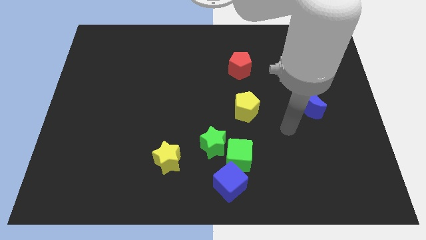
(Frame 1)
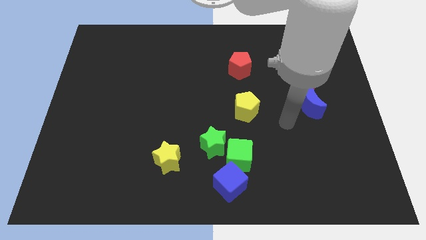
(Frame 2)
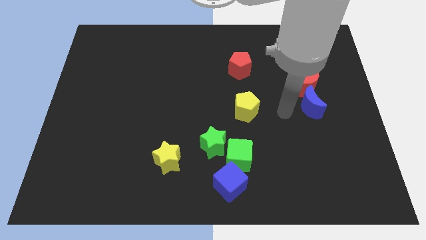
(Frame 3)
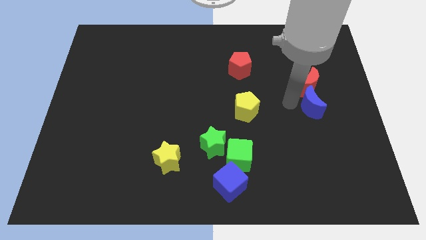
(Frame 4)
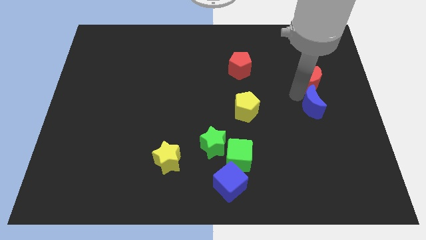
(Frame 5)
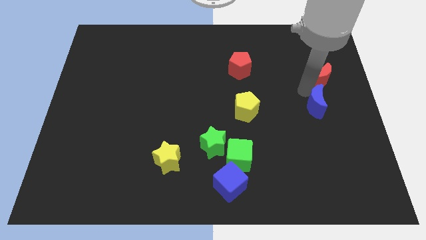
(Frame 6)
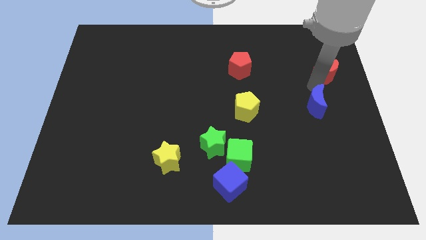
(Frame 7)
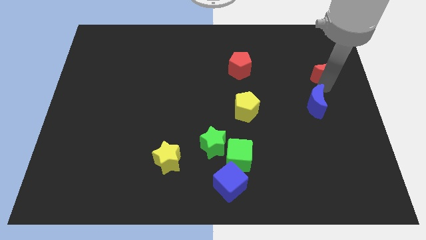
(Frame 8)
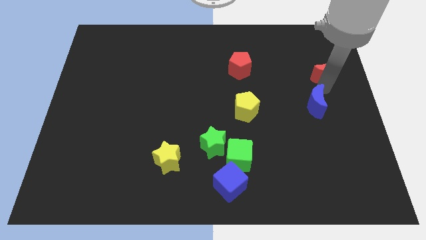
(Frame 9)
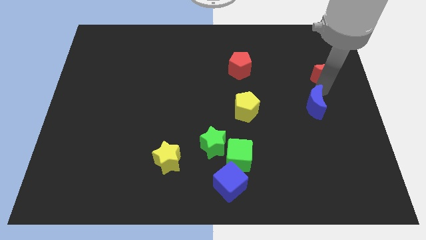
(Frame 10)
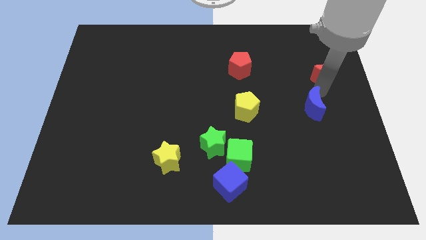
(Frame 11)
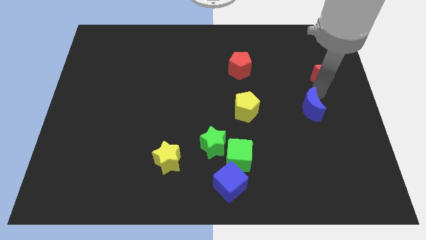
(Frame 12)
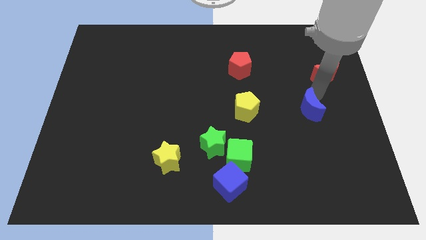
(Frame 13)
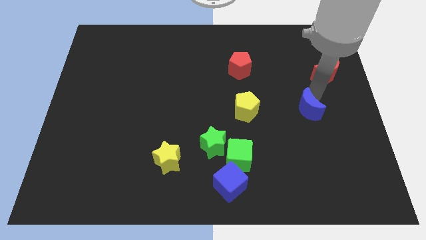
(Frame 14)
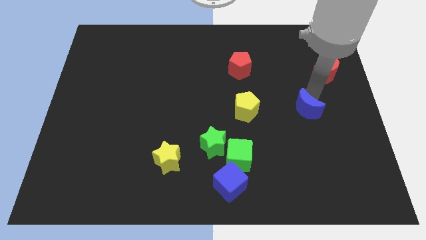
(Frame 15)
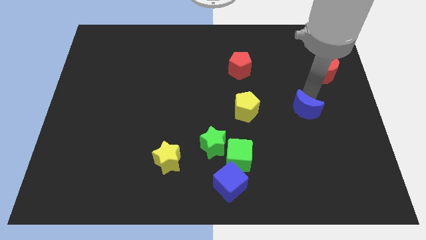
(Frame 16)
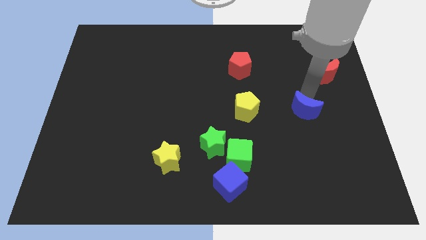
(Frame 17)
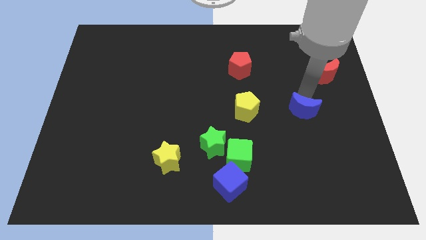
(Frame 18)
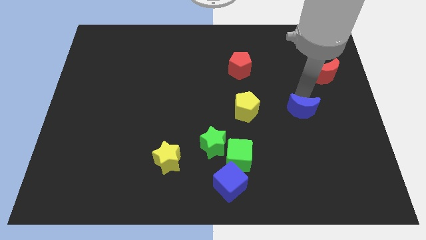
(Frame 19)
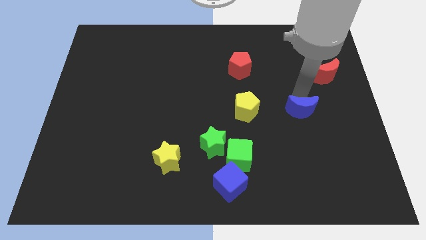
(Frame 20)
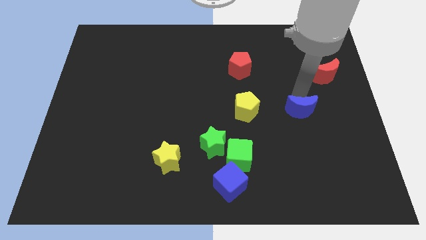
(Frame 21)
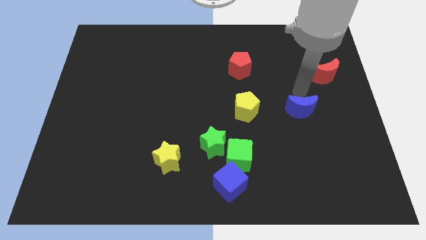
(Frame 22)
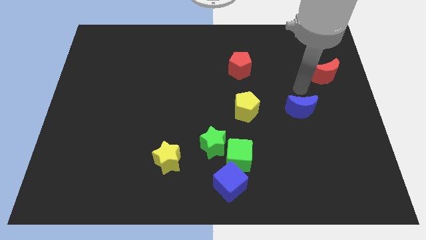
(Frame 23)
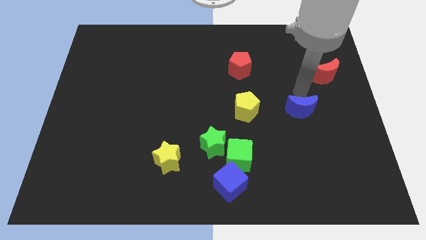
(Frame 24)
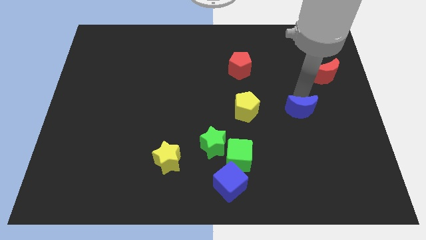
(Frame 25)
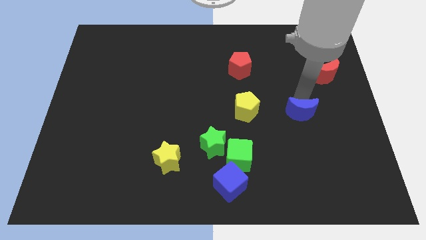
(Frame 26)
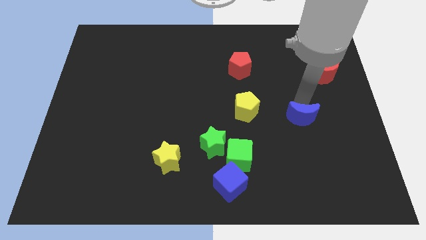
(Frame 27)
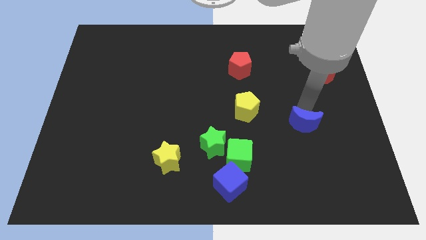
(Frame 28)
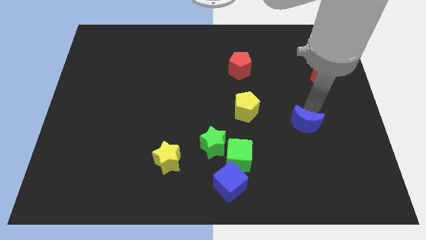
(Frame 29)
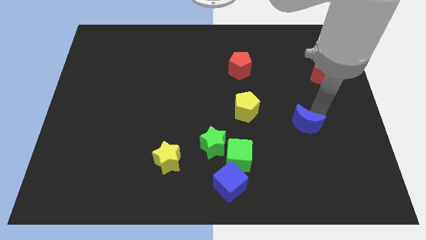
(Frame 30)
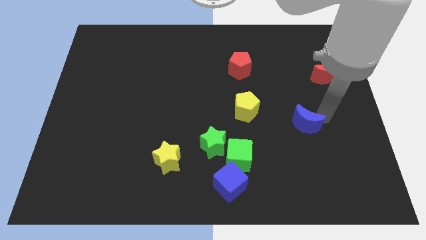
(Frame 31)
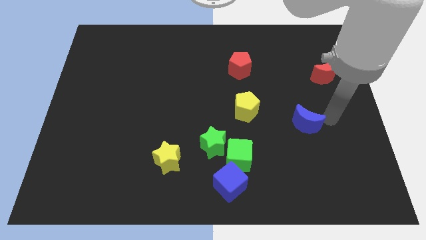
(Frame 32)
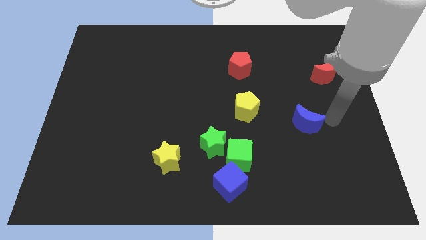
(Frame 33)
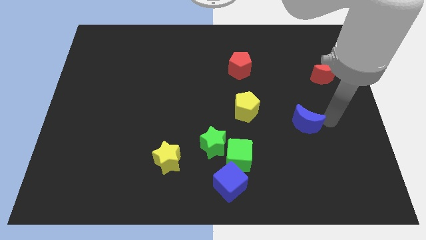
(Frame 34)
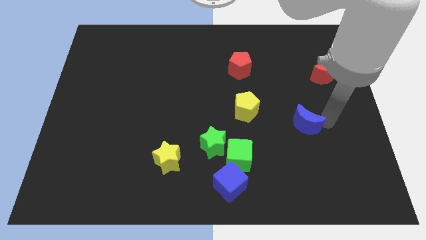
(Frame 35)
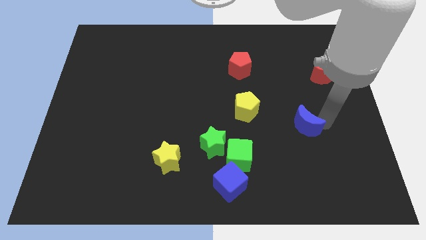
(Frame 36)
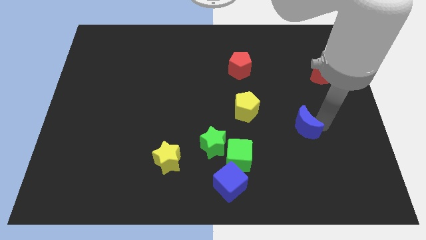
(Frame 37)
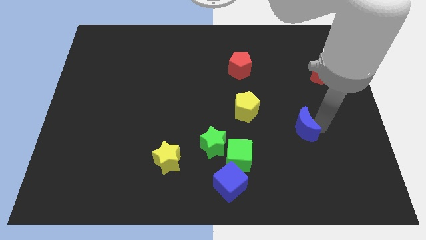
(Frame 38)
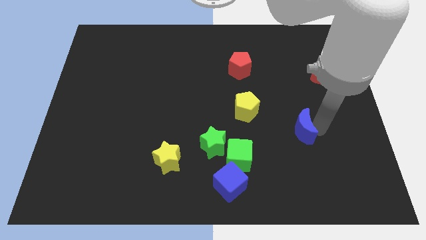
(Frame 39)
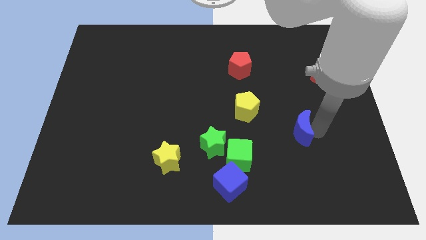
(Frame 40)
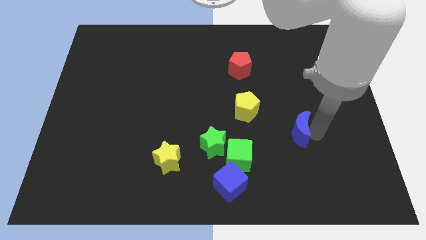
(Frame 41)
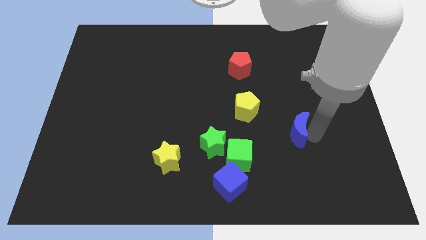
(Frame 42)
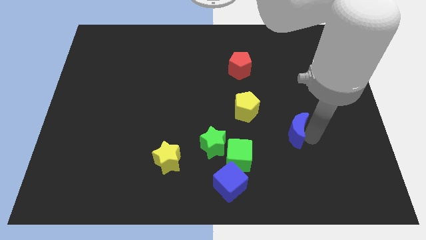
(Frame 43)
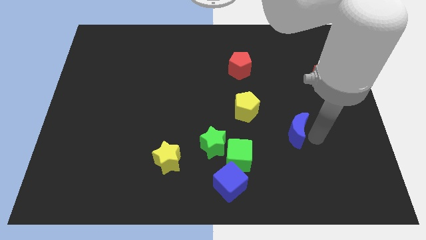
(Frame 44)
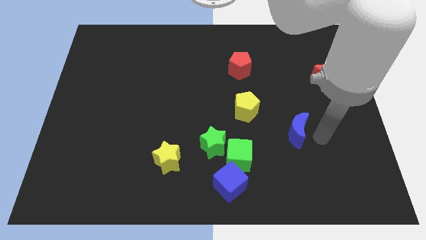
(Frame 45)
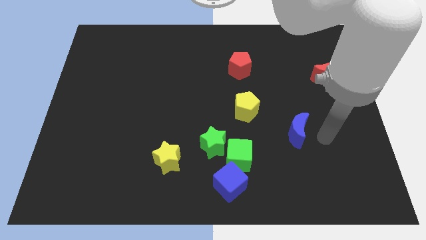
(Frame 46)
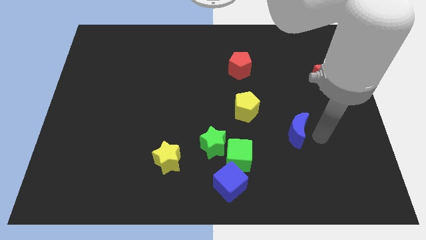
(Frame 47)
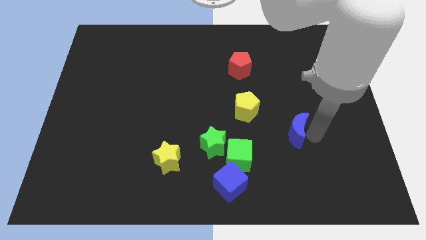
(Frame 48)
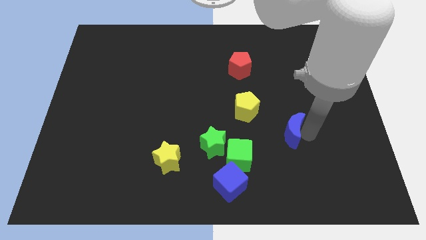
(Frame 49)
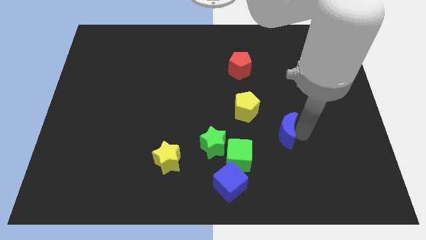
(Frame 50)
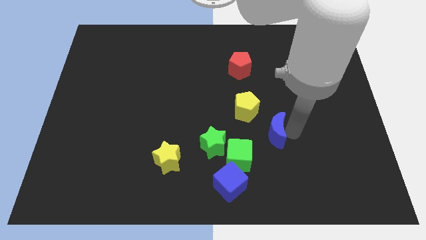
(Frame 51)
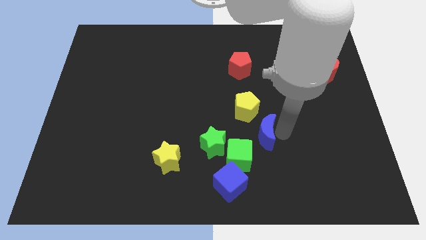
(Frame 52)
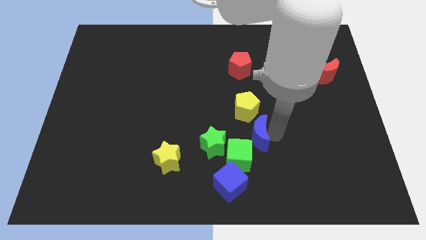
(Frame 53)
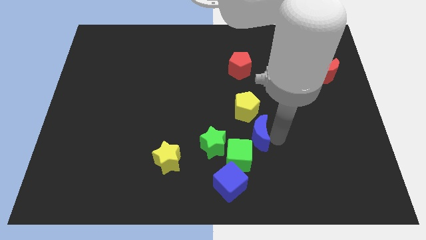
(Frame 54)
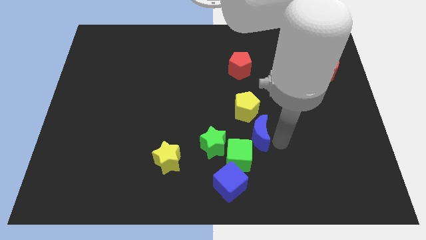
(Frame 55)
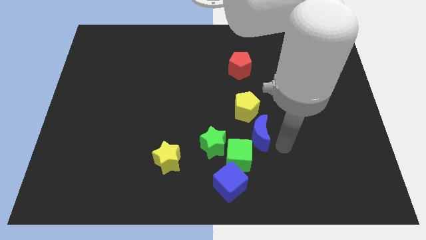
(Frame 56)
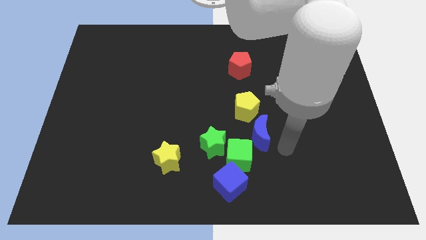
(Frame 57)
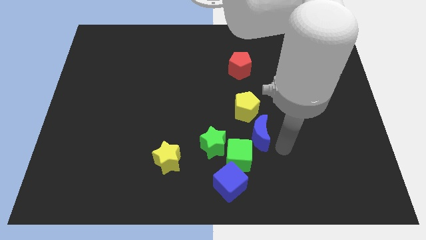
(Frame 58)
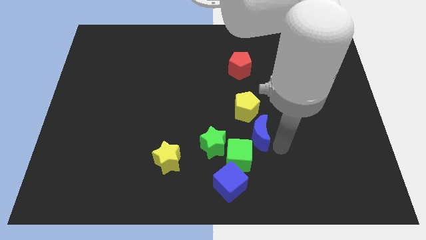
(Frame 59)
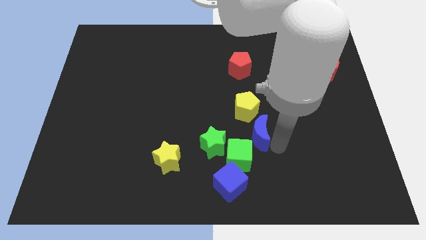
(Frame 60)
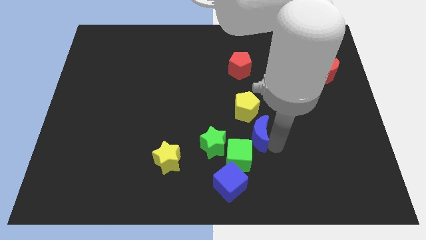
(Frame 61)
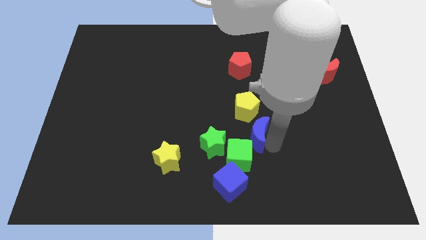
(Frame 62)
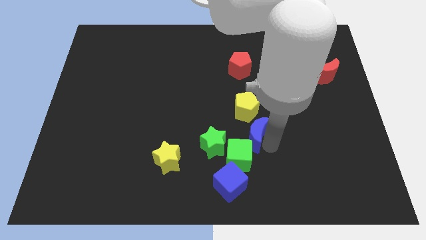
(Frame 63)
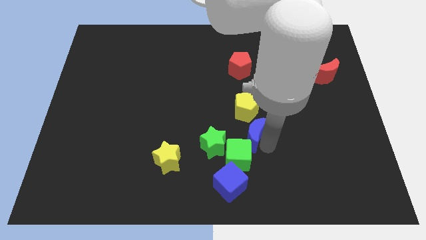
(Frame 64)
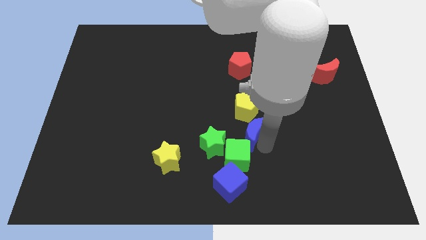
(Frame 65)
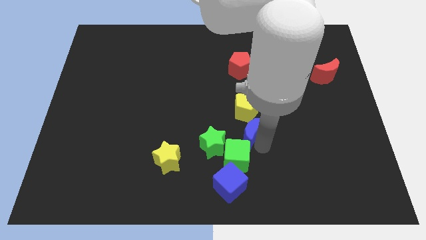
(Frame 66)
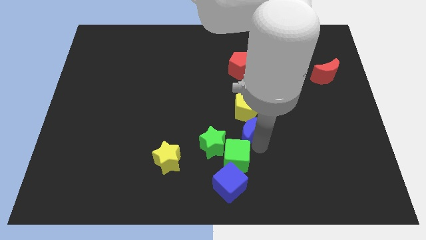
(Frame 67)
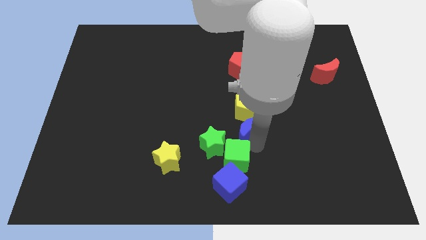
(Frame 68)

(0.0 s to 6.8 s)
slide the blue moon to the bottom left of the yellow pentagon
